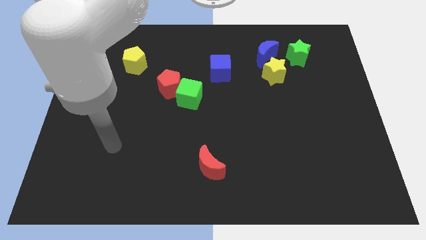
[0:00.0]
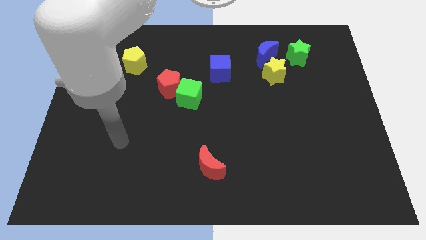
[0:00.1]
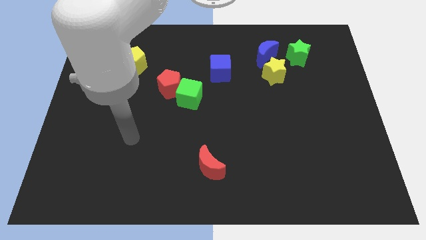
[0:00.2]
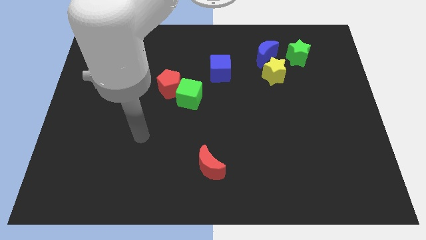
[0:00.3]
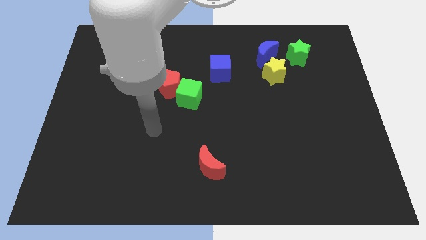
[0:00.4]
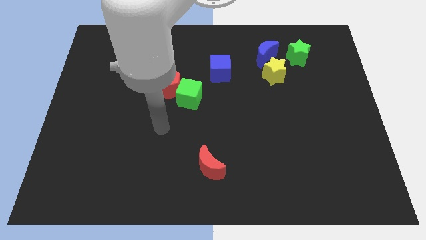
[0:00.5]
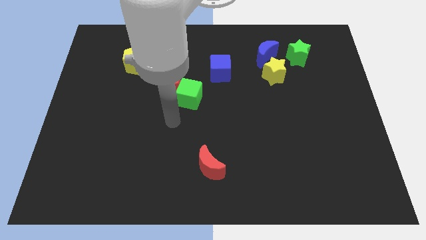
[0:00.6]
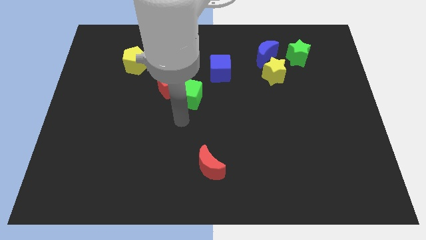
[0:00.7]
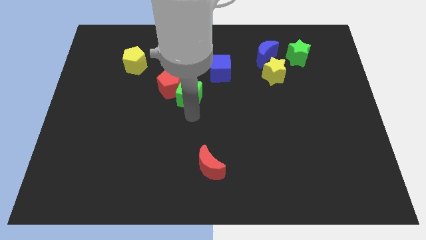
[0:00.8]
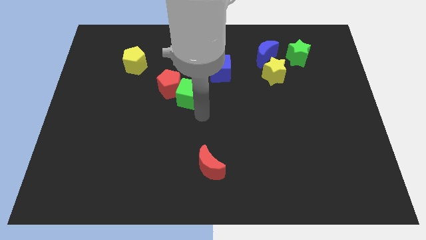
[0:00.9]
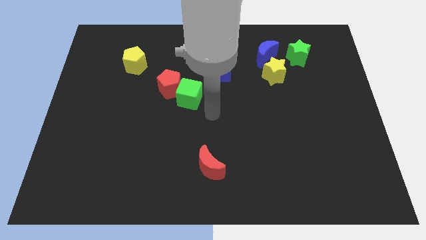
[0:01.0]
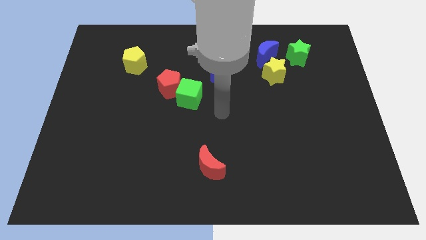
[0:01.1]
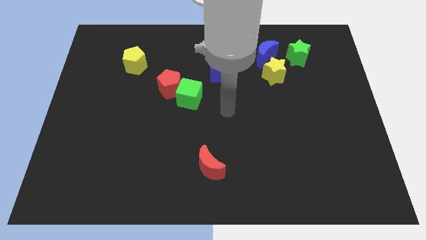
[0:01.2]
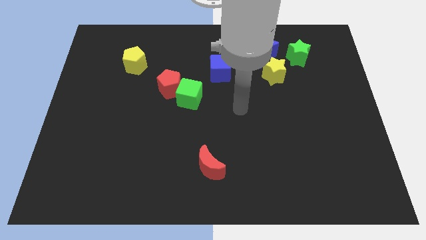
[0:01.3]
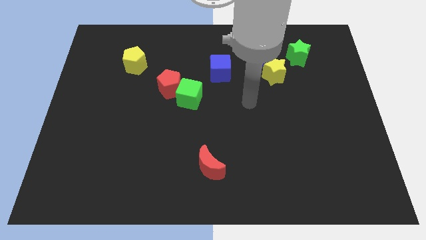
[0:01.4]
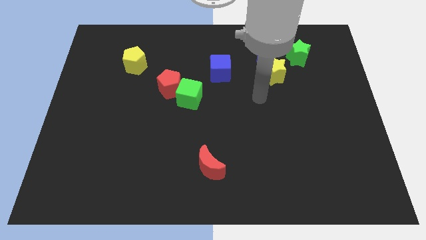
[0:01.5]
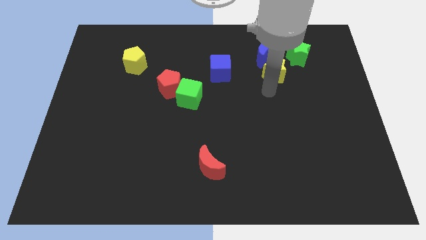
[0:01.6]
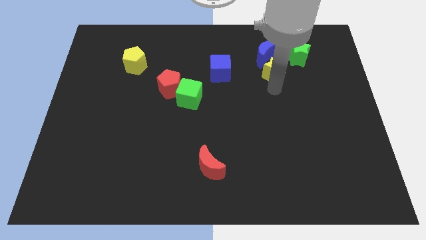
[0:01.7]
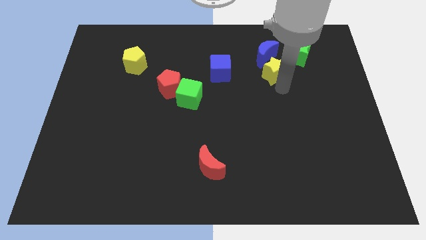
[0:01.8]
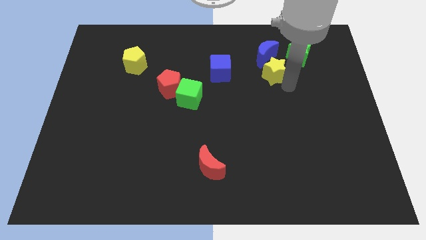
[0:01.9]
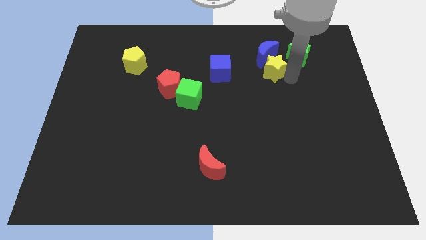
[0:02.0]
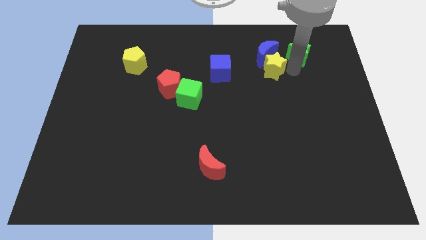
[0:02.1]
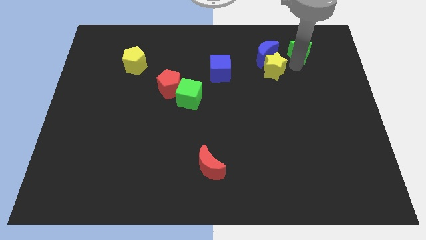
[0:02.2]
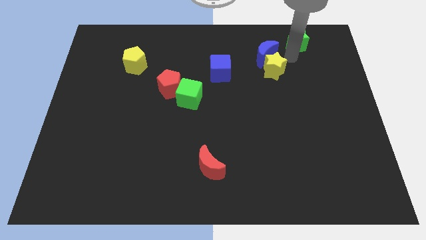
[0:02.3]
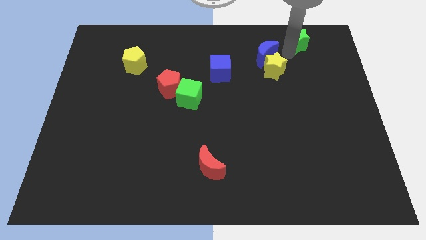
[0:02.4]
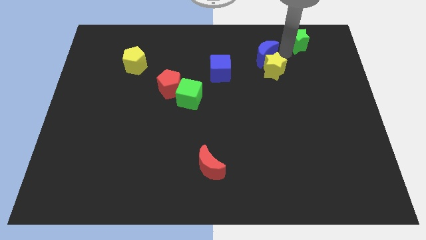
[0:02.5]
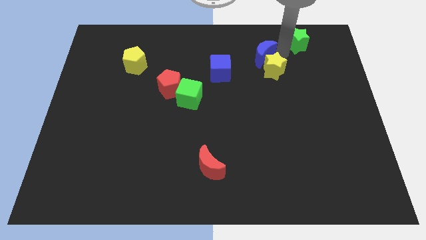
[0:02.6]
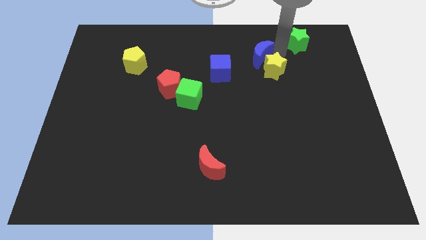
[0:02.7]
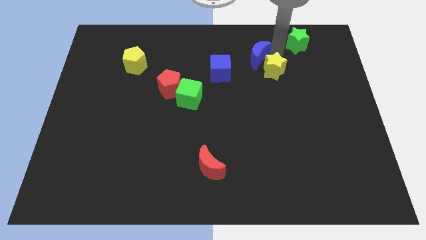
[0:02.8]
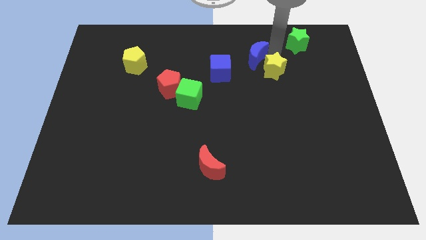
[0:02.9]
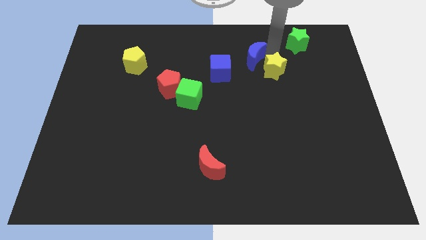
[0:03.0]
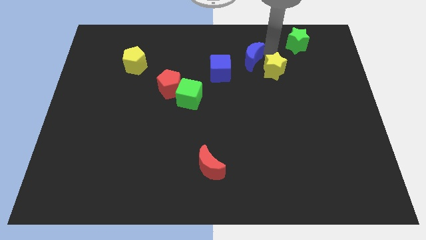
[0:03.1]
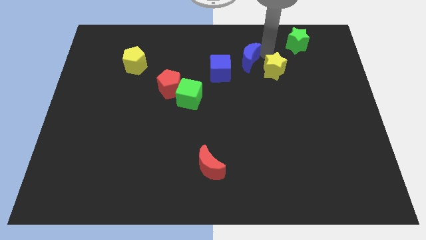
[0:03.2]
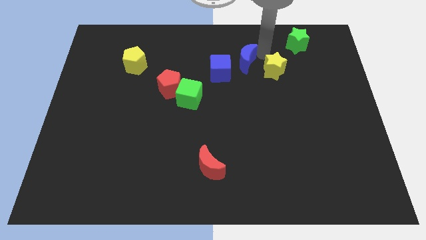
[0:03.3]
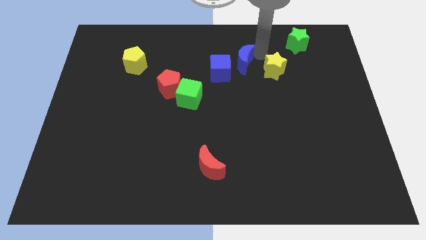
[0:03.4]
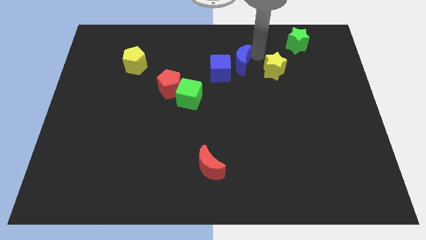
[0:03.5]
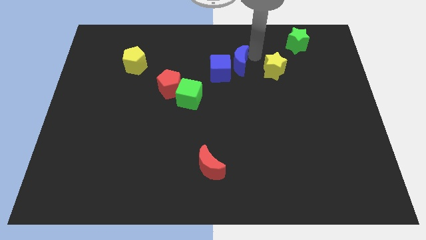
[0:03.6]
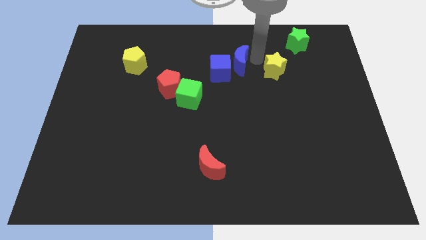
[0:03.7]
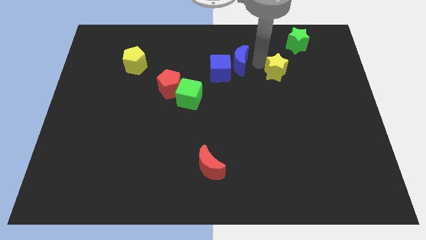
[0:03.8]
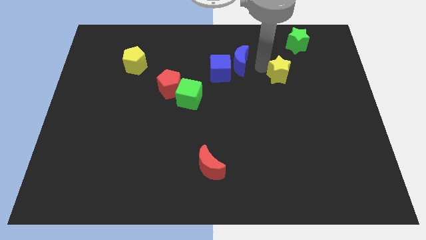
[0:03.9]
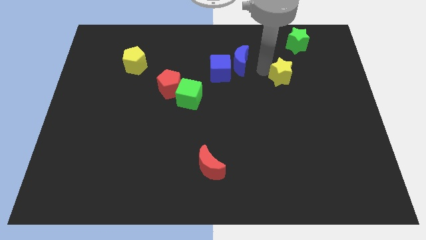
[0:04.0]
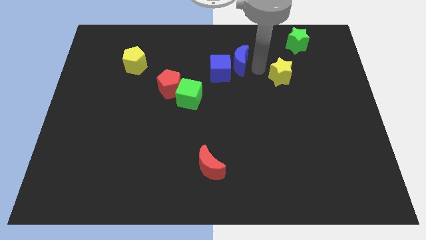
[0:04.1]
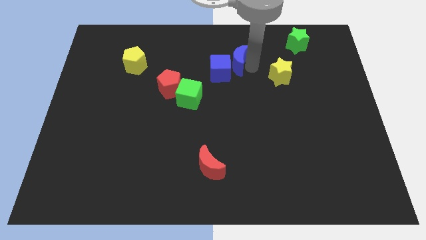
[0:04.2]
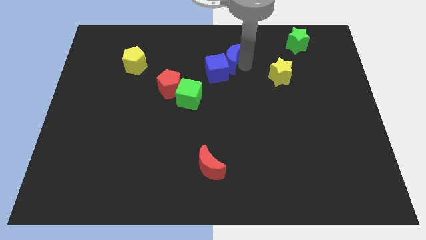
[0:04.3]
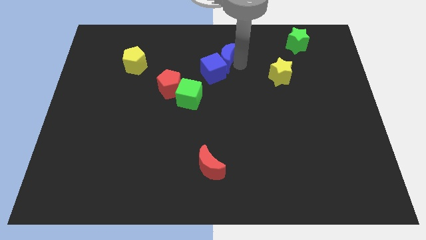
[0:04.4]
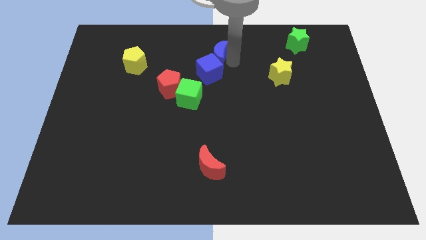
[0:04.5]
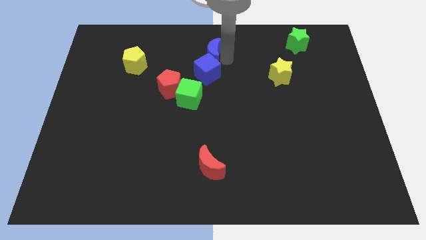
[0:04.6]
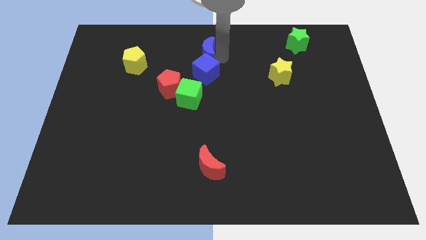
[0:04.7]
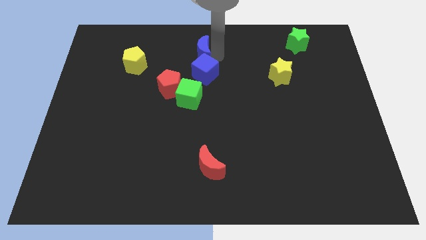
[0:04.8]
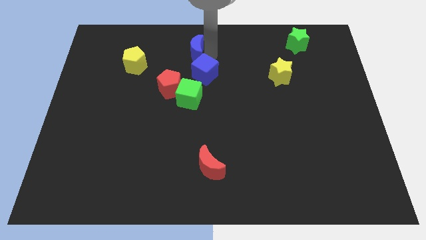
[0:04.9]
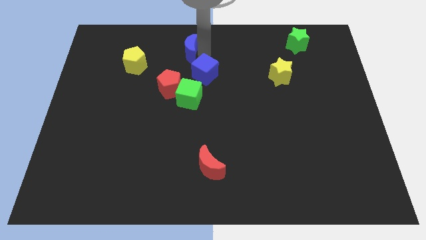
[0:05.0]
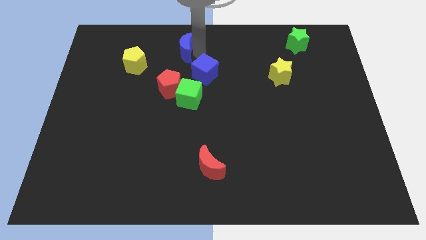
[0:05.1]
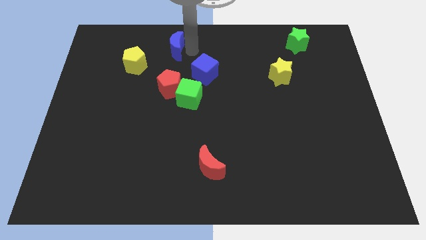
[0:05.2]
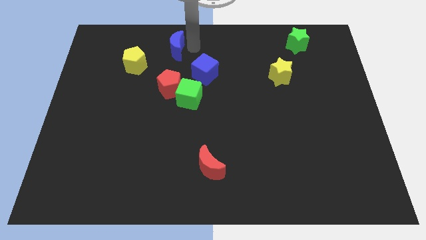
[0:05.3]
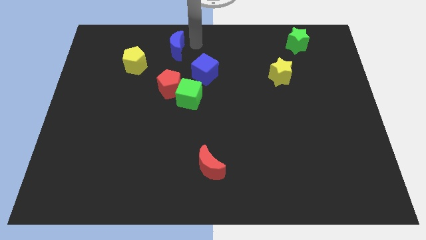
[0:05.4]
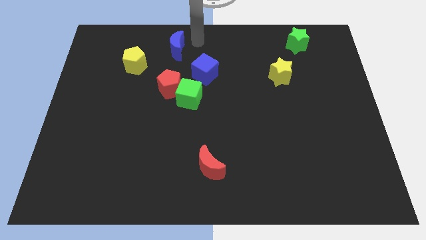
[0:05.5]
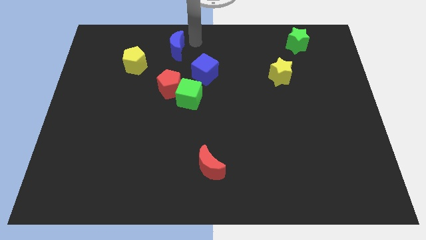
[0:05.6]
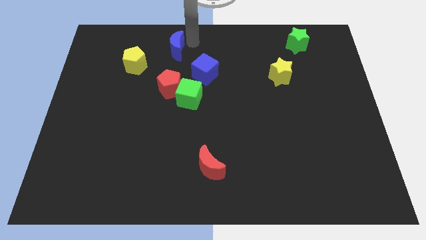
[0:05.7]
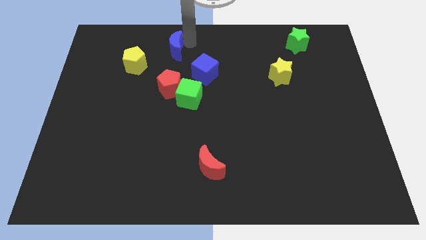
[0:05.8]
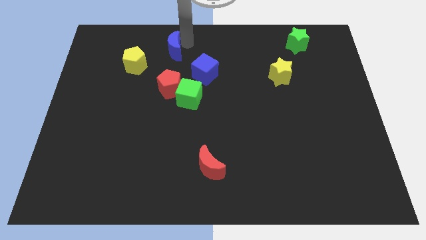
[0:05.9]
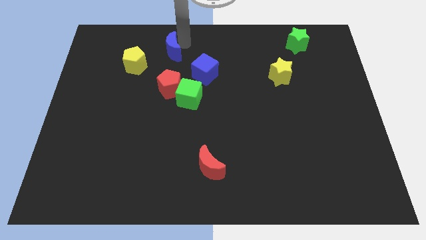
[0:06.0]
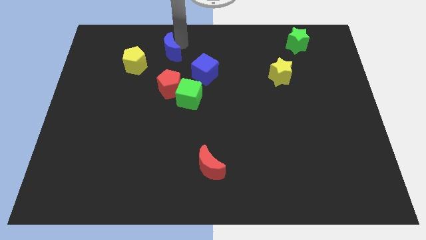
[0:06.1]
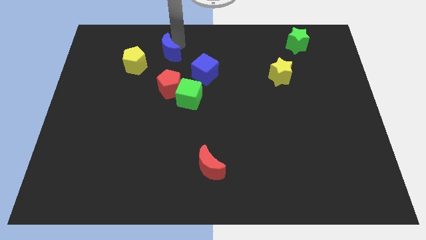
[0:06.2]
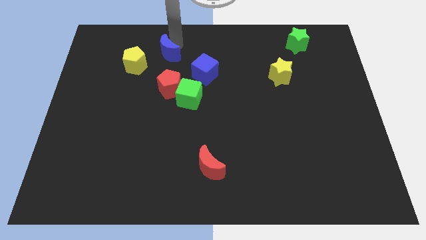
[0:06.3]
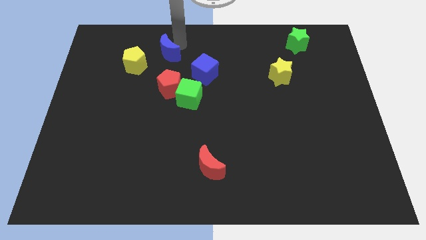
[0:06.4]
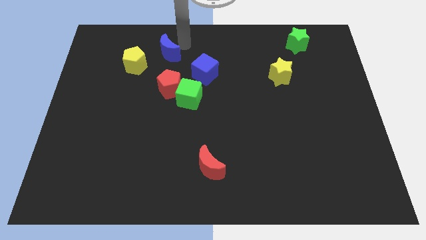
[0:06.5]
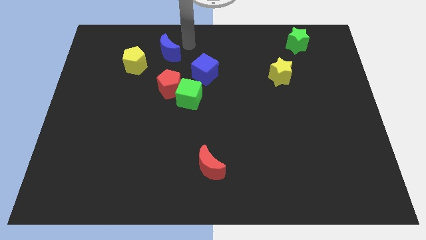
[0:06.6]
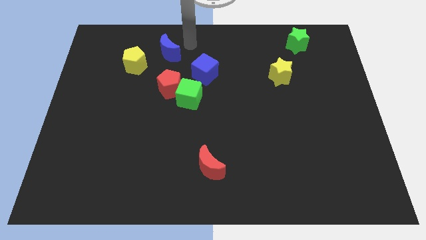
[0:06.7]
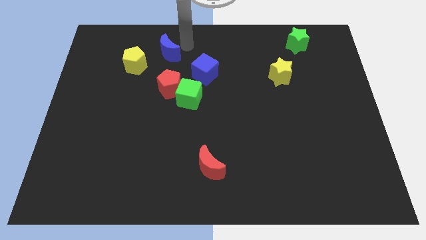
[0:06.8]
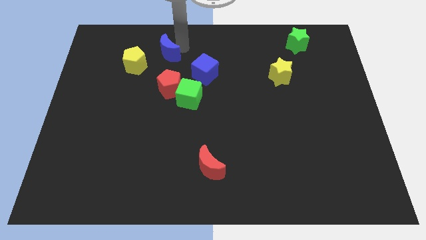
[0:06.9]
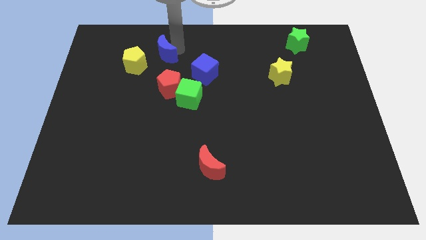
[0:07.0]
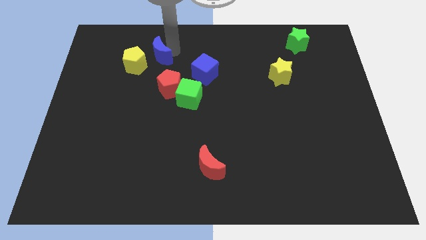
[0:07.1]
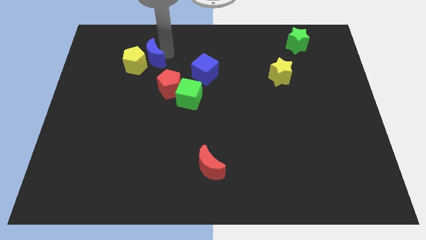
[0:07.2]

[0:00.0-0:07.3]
put the blue moon towards the yellow pentagon

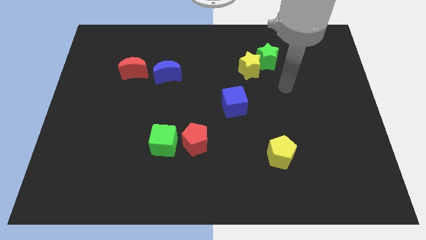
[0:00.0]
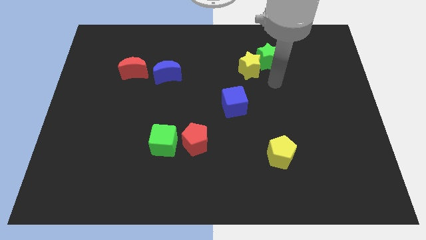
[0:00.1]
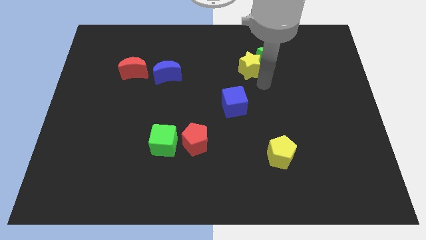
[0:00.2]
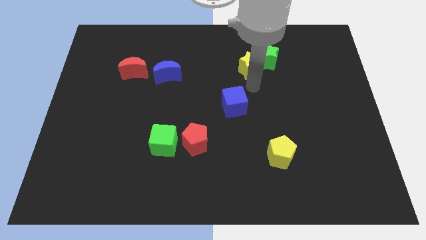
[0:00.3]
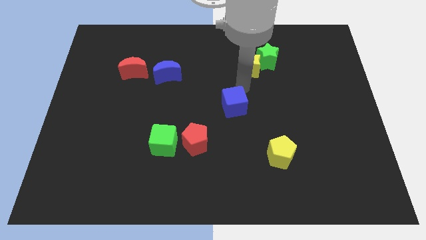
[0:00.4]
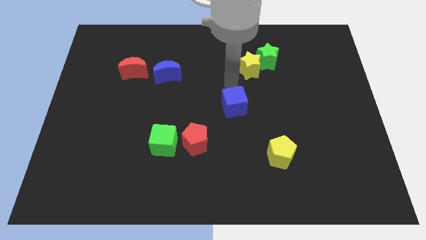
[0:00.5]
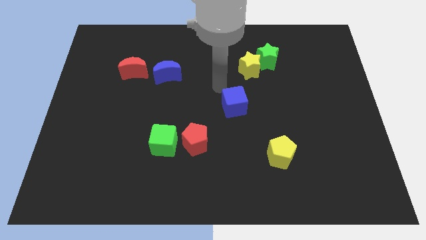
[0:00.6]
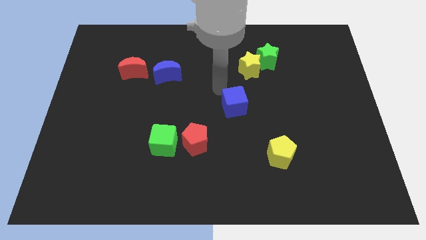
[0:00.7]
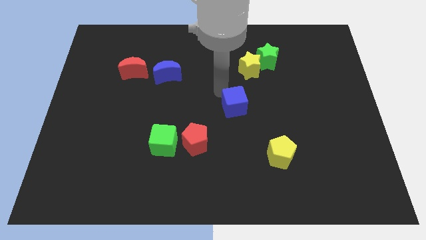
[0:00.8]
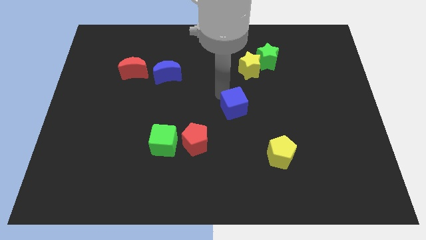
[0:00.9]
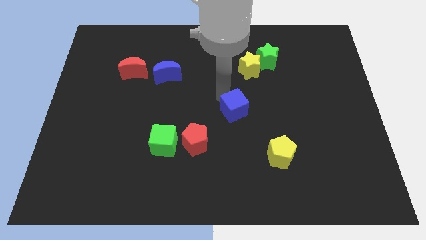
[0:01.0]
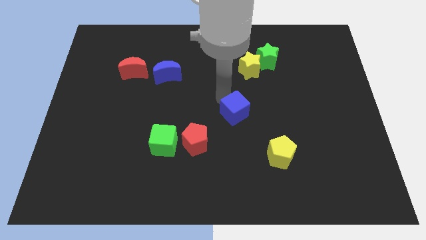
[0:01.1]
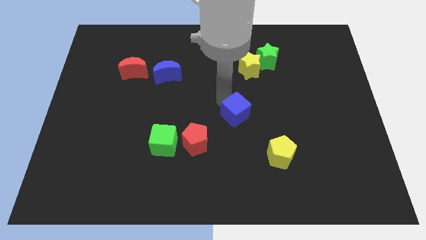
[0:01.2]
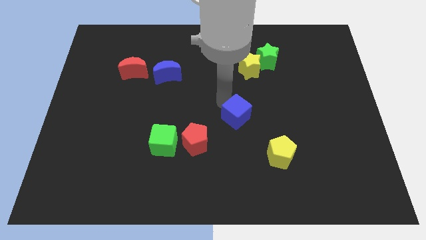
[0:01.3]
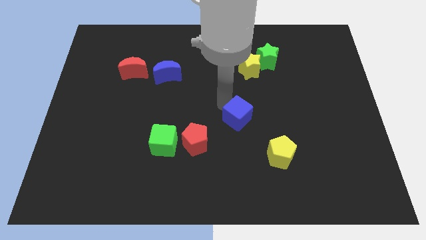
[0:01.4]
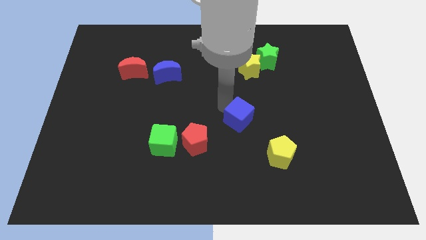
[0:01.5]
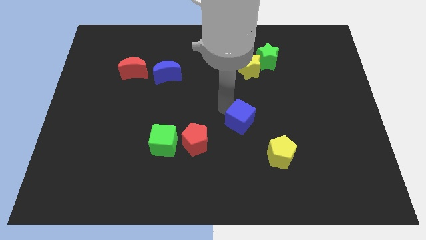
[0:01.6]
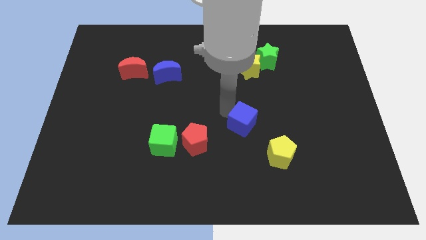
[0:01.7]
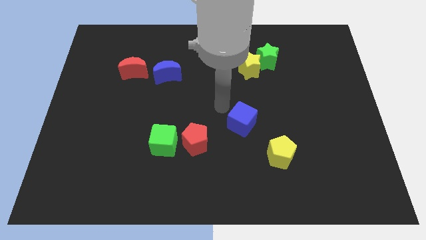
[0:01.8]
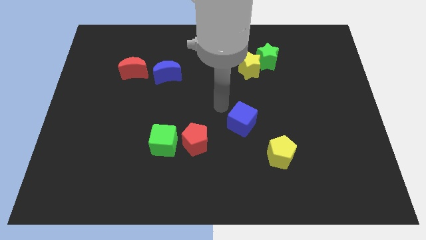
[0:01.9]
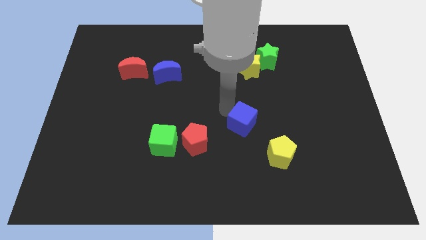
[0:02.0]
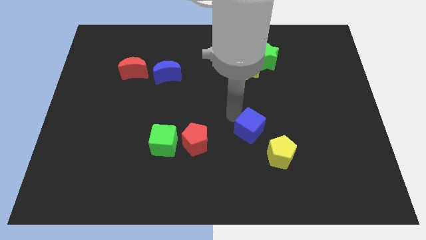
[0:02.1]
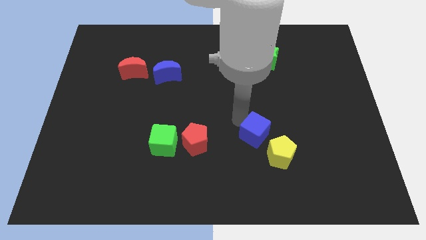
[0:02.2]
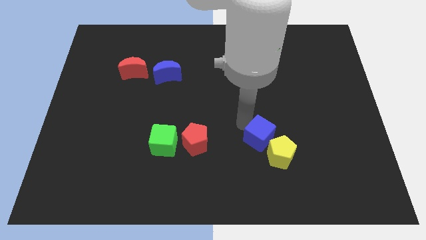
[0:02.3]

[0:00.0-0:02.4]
push the blue cube close to the yellow pentagon
